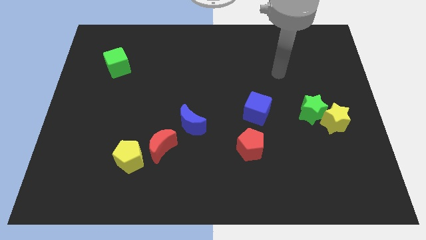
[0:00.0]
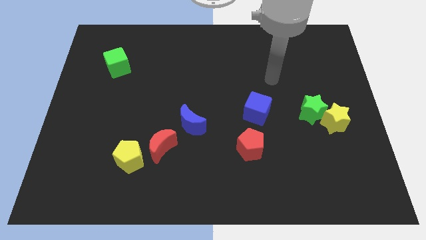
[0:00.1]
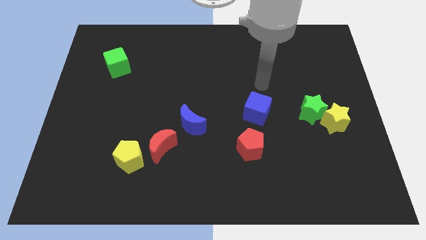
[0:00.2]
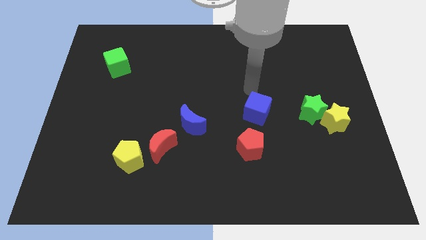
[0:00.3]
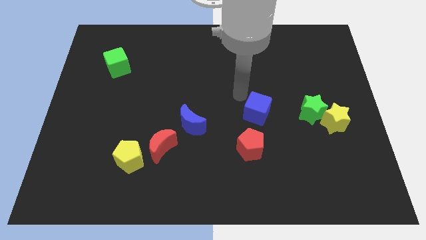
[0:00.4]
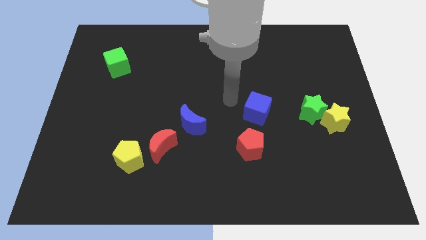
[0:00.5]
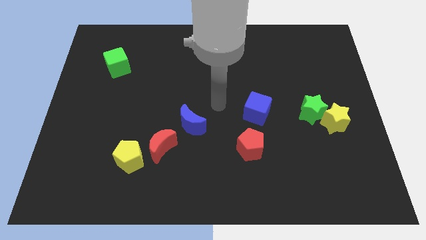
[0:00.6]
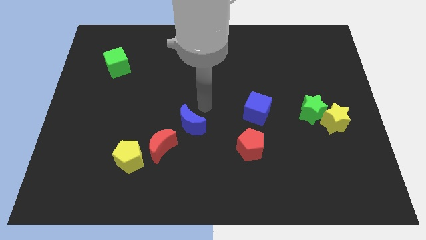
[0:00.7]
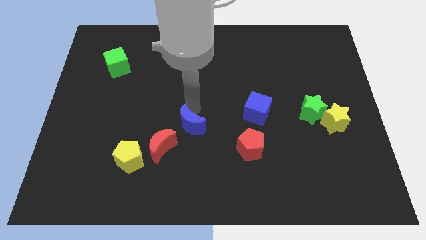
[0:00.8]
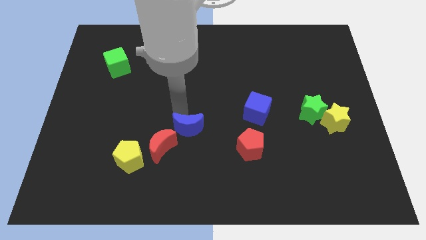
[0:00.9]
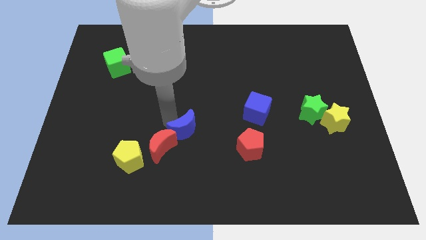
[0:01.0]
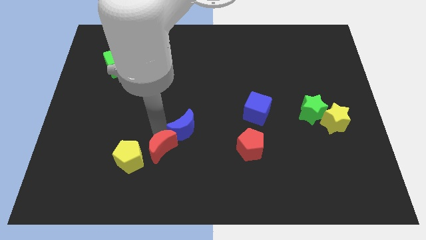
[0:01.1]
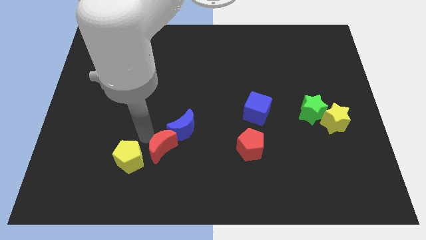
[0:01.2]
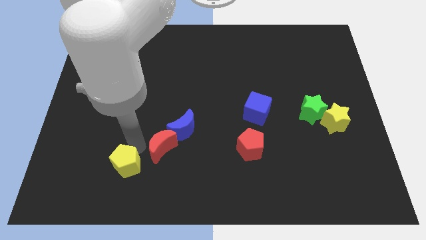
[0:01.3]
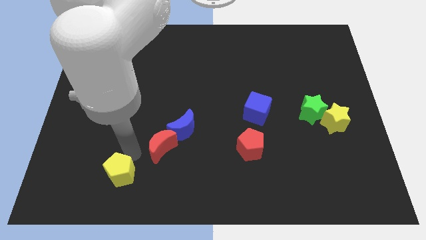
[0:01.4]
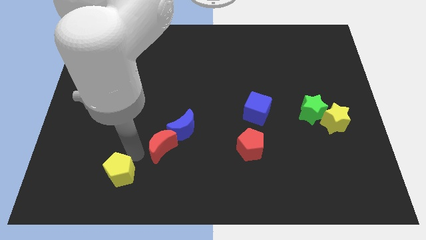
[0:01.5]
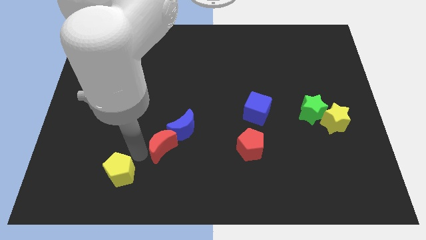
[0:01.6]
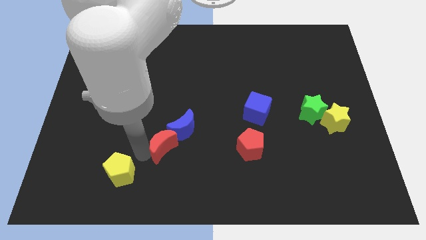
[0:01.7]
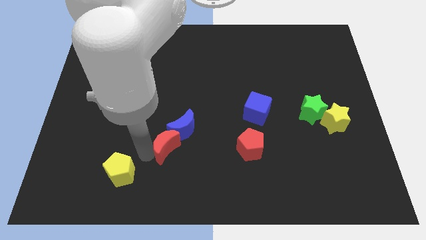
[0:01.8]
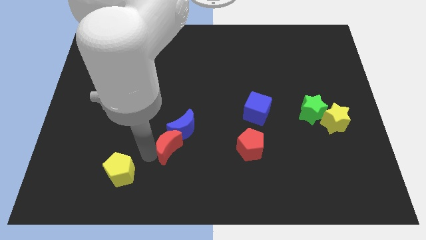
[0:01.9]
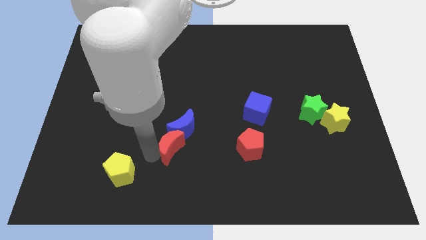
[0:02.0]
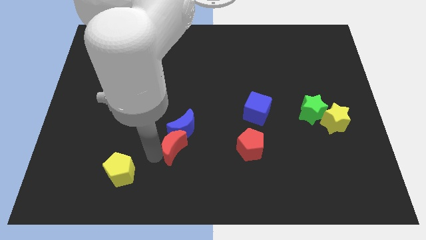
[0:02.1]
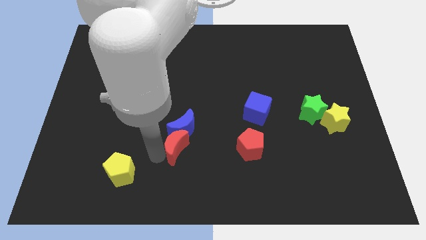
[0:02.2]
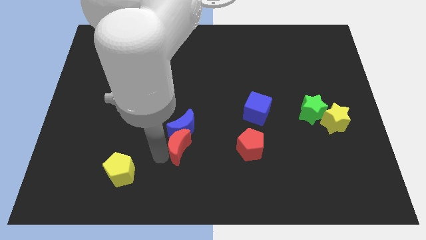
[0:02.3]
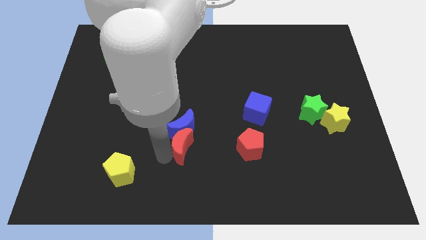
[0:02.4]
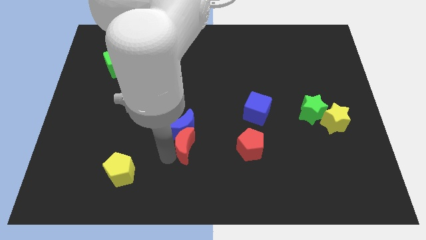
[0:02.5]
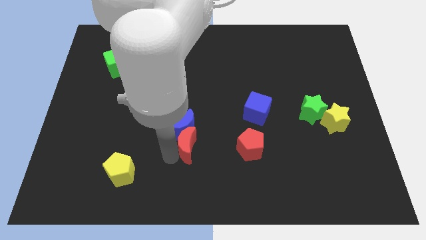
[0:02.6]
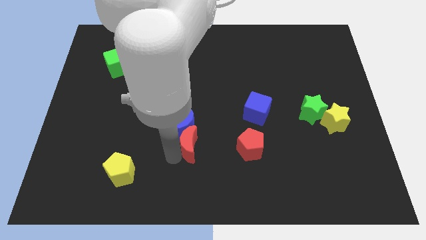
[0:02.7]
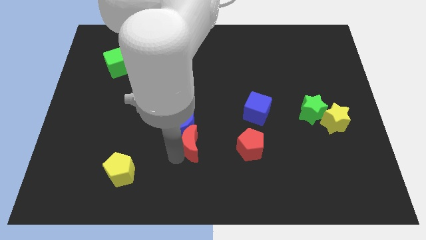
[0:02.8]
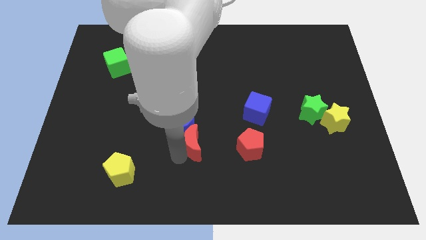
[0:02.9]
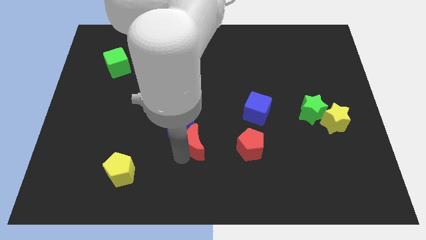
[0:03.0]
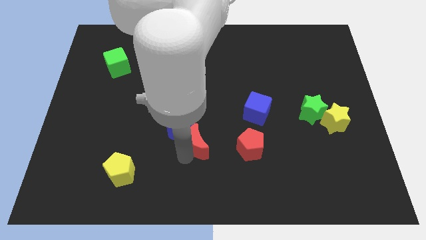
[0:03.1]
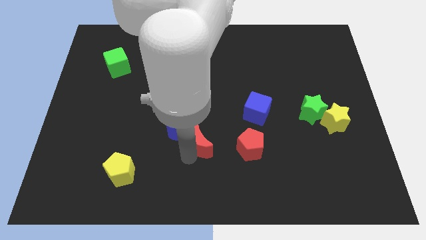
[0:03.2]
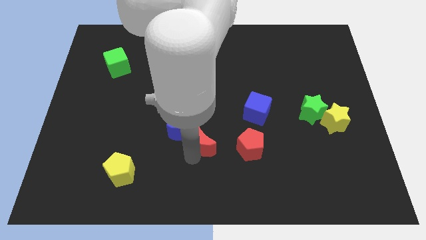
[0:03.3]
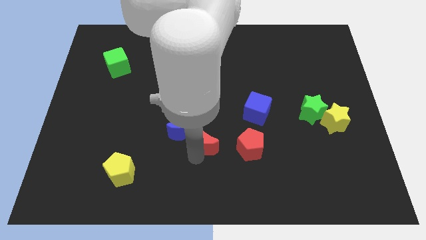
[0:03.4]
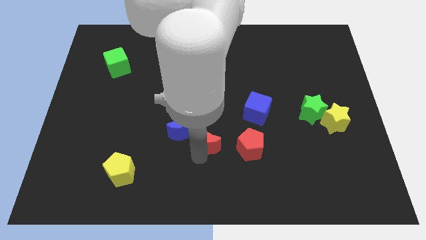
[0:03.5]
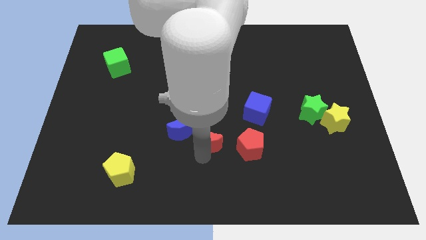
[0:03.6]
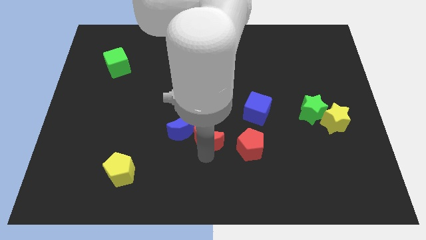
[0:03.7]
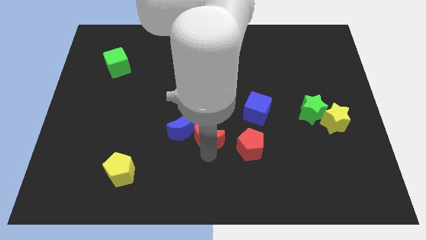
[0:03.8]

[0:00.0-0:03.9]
move the red moon a little upwards and to the right

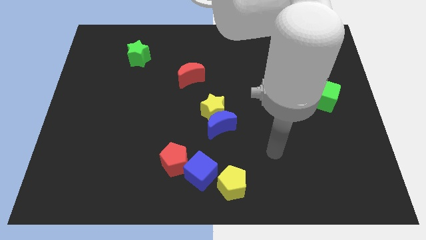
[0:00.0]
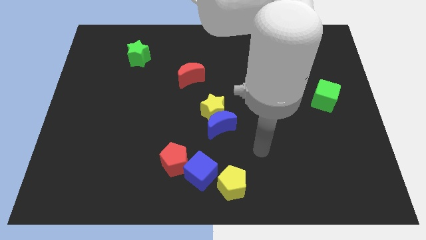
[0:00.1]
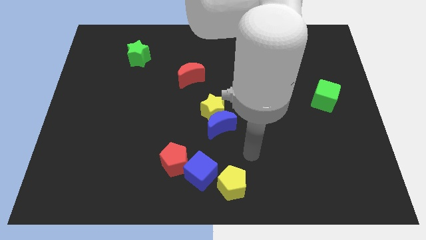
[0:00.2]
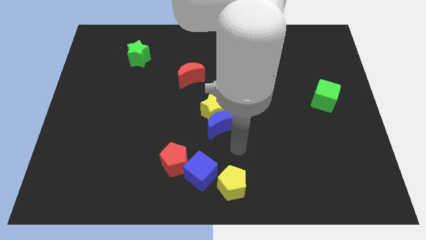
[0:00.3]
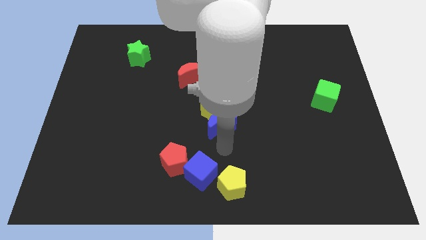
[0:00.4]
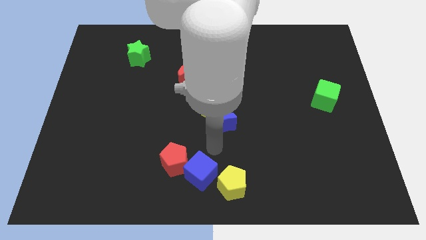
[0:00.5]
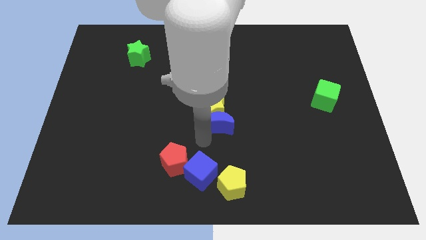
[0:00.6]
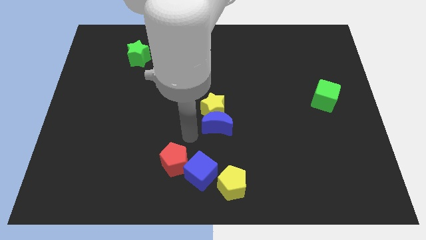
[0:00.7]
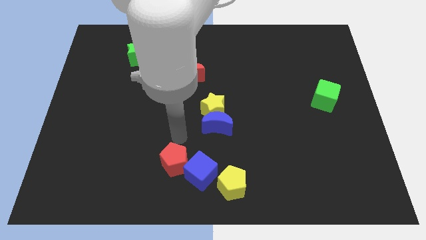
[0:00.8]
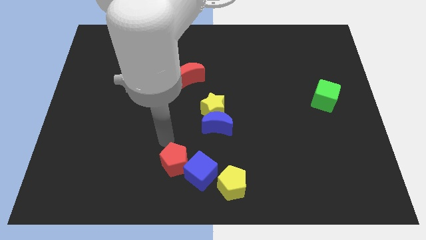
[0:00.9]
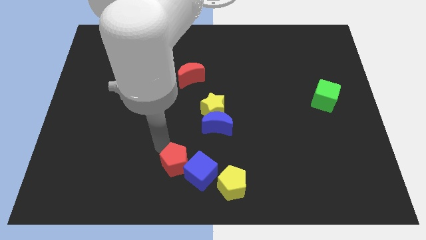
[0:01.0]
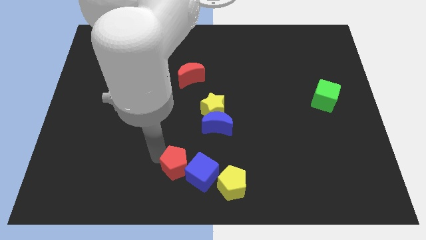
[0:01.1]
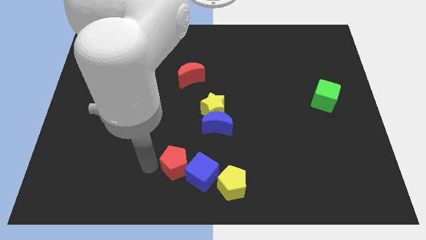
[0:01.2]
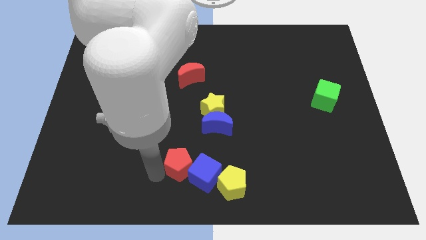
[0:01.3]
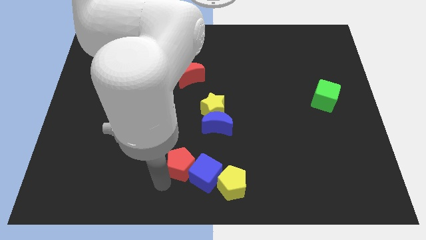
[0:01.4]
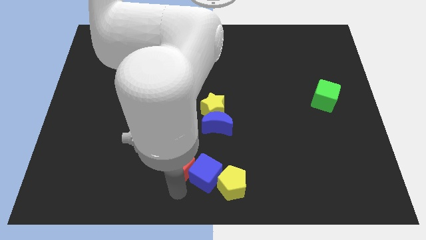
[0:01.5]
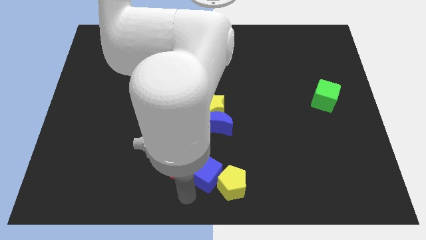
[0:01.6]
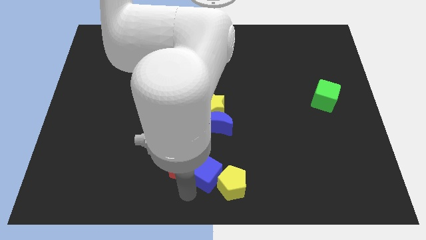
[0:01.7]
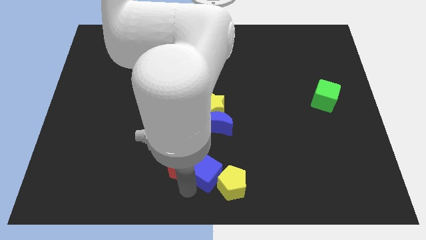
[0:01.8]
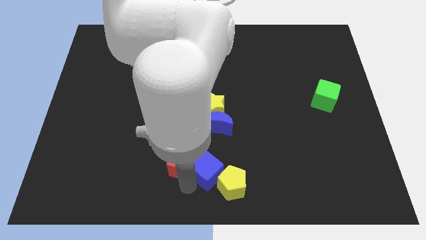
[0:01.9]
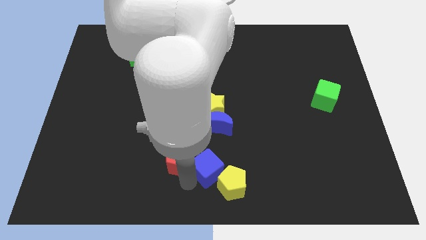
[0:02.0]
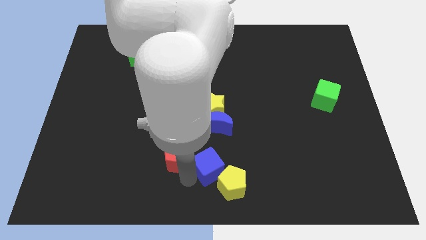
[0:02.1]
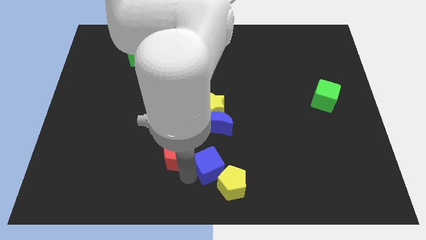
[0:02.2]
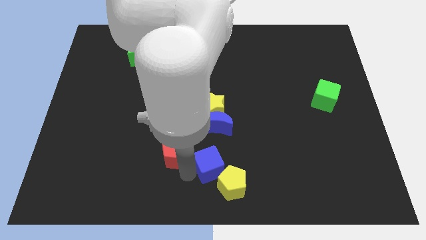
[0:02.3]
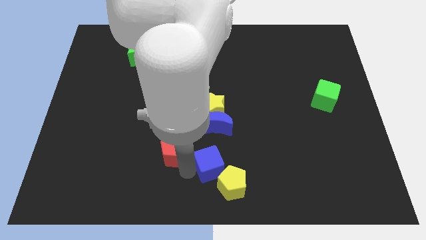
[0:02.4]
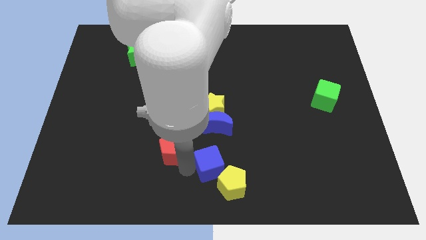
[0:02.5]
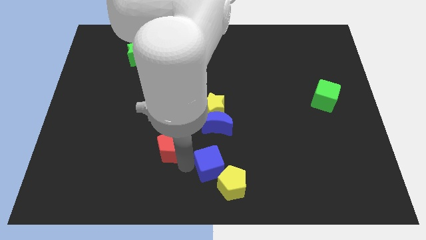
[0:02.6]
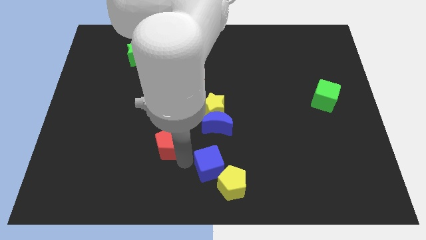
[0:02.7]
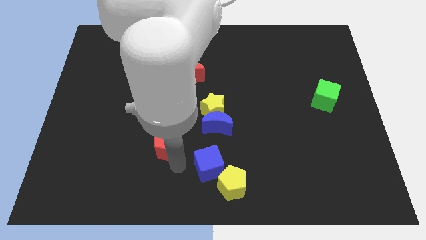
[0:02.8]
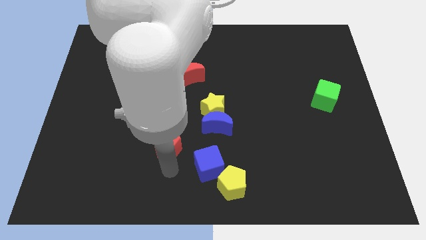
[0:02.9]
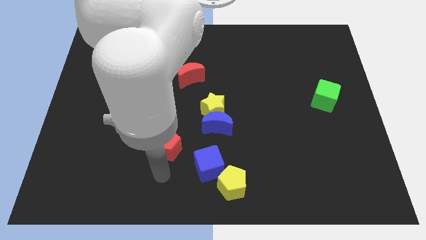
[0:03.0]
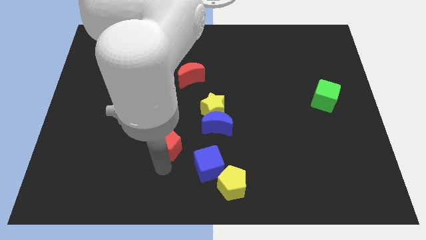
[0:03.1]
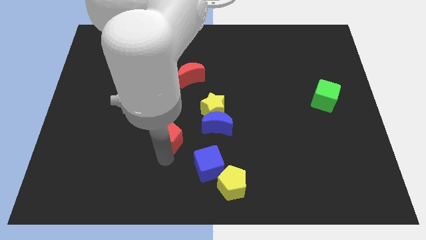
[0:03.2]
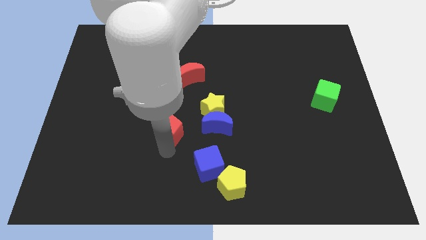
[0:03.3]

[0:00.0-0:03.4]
push the red pentagon somewhat up

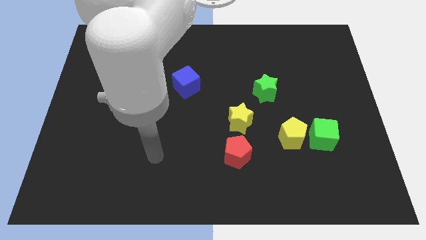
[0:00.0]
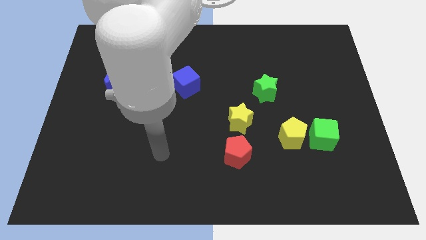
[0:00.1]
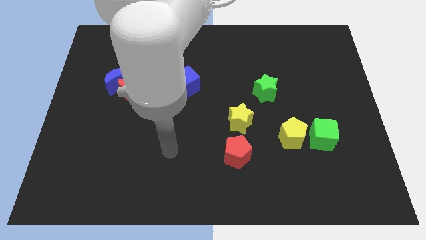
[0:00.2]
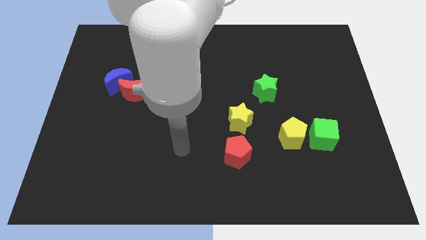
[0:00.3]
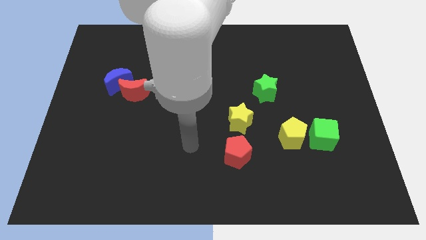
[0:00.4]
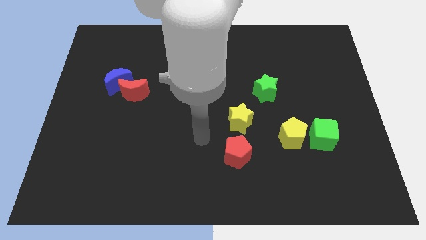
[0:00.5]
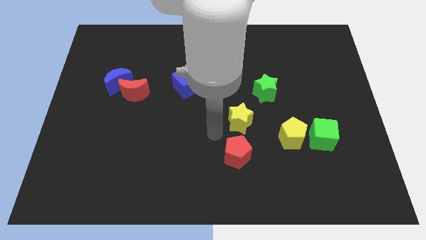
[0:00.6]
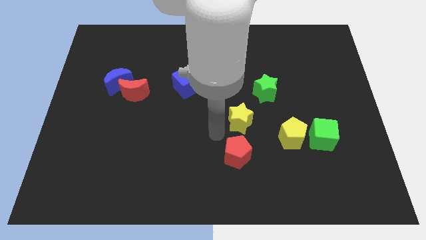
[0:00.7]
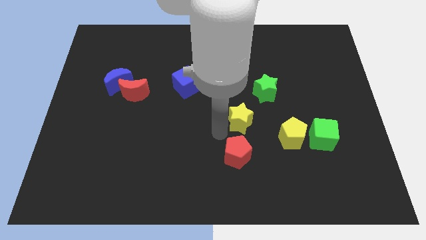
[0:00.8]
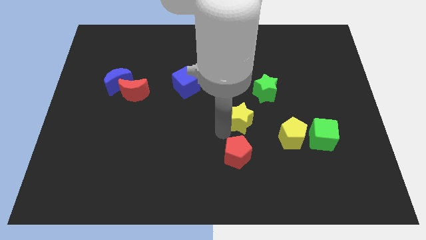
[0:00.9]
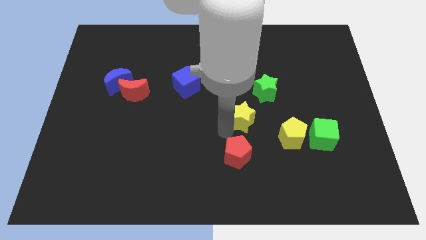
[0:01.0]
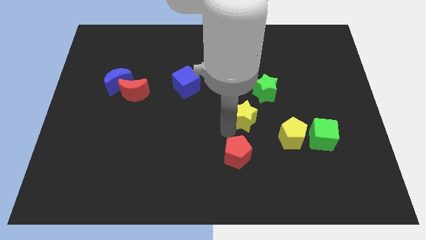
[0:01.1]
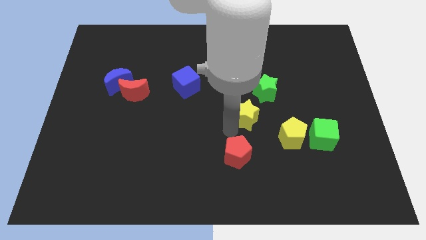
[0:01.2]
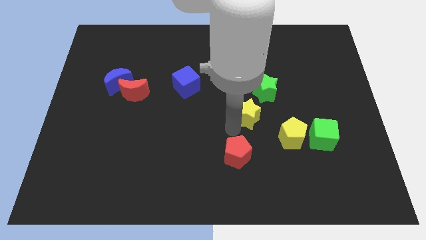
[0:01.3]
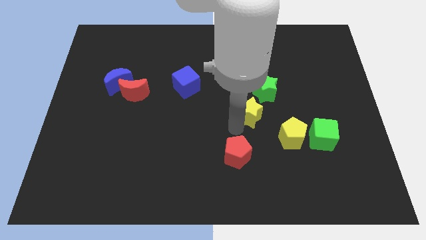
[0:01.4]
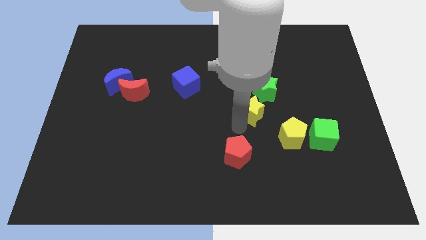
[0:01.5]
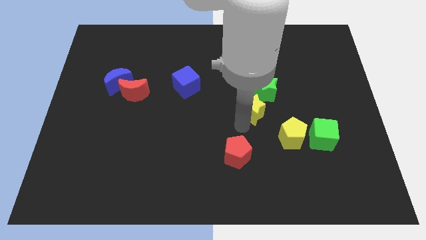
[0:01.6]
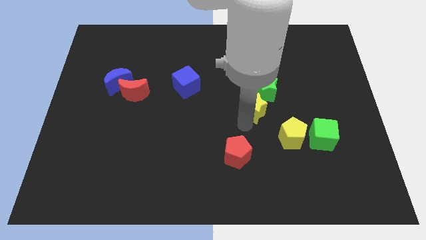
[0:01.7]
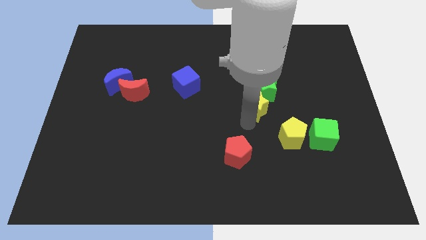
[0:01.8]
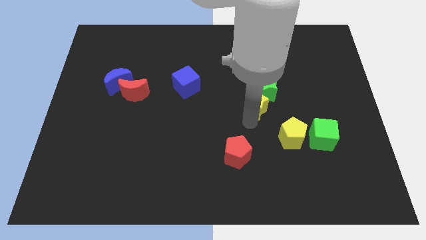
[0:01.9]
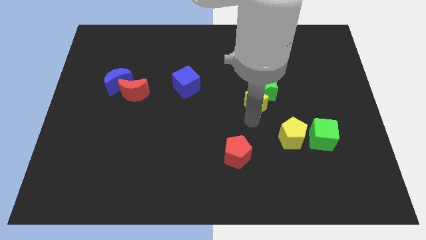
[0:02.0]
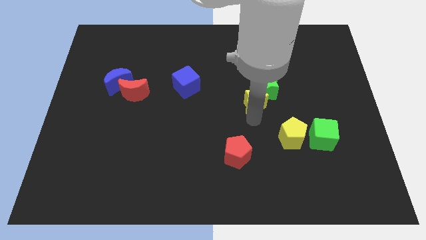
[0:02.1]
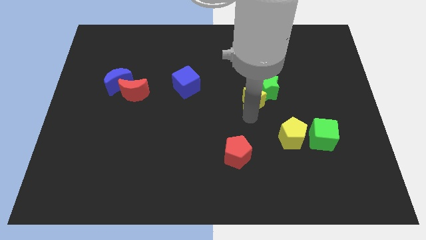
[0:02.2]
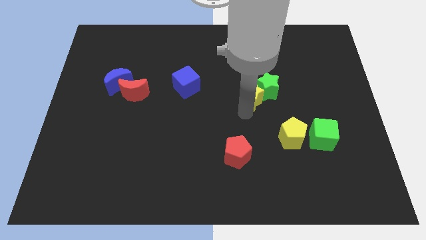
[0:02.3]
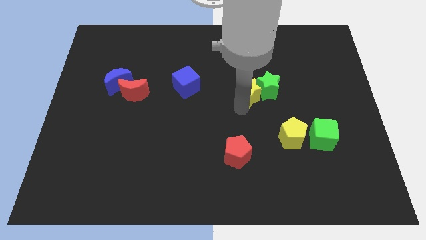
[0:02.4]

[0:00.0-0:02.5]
slightly move the yellow star upwards and then to the right
